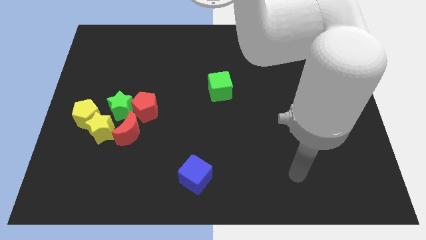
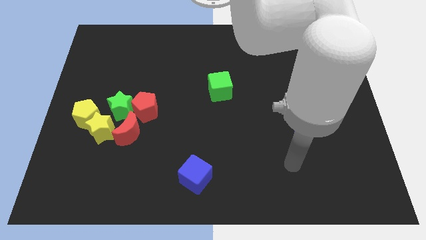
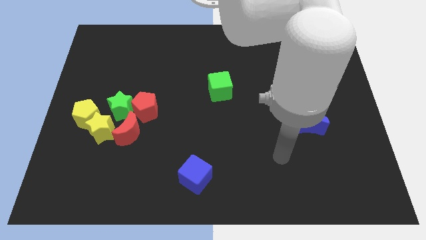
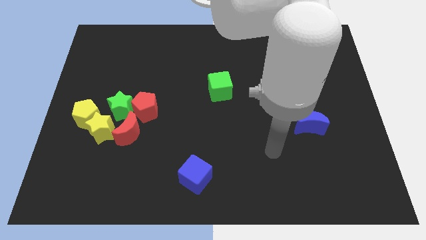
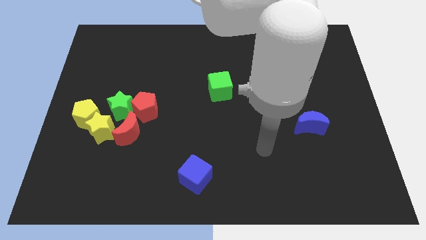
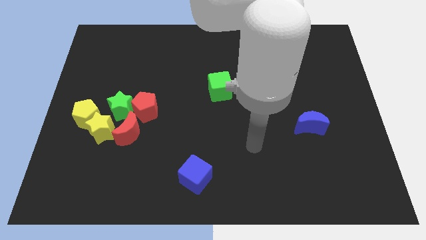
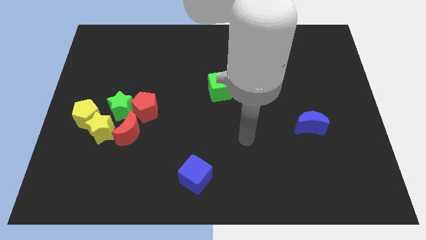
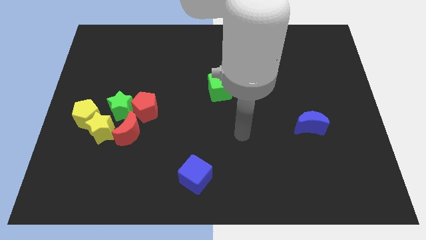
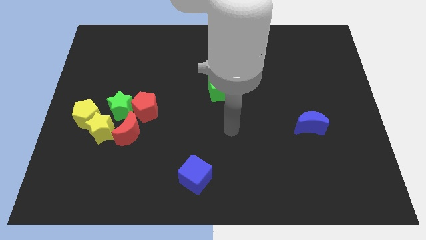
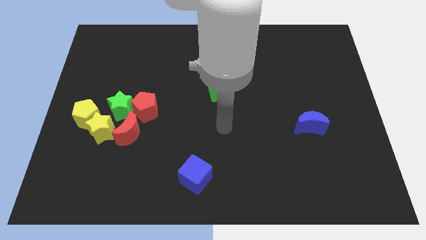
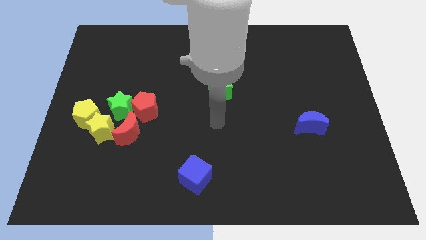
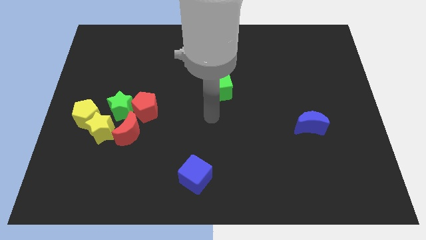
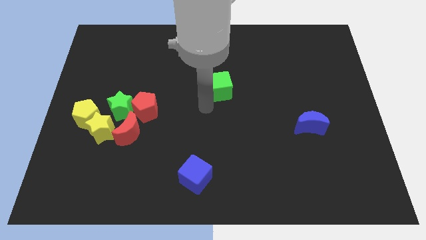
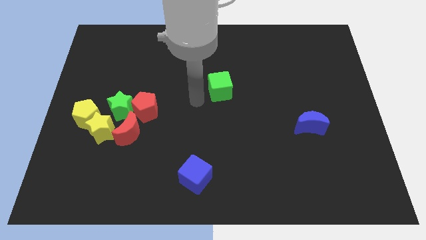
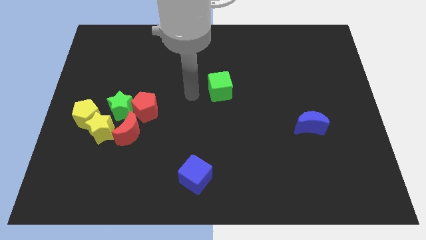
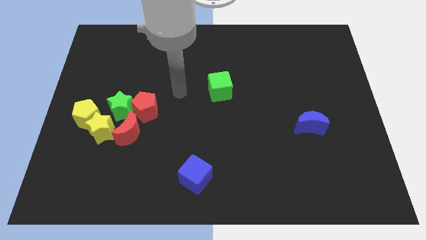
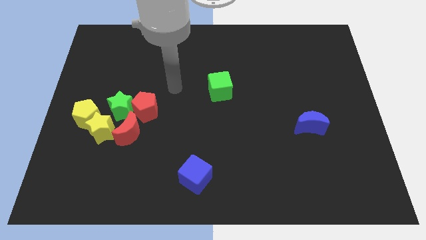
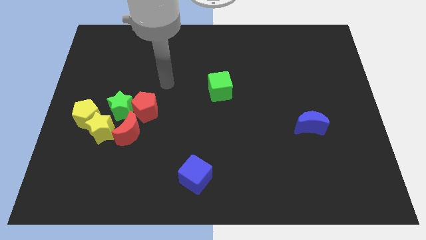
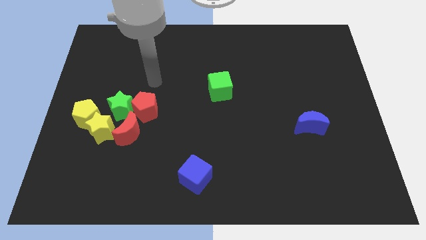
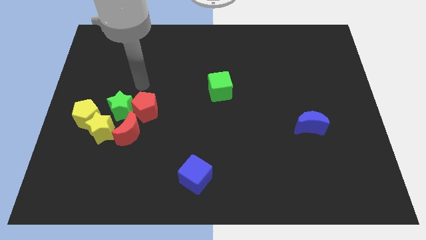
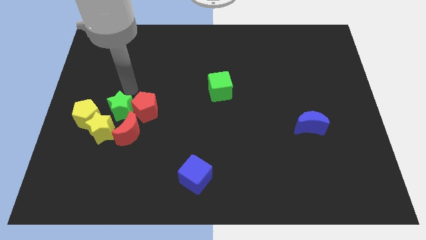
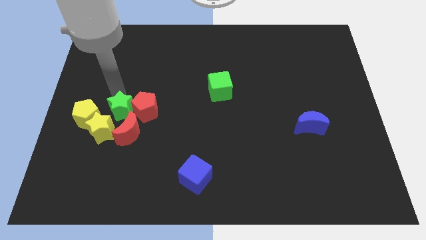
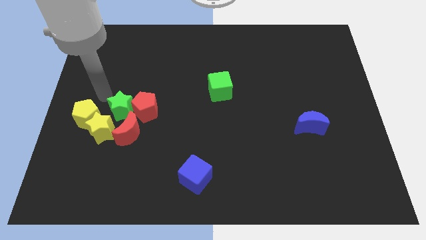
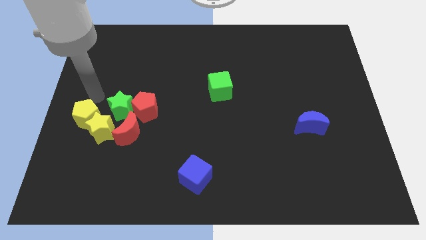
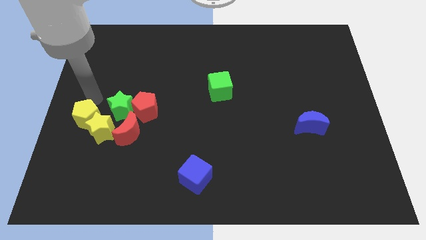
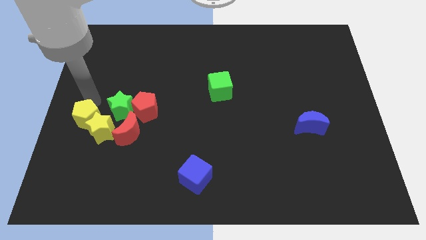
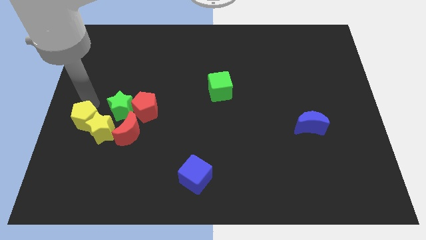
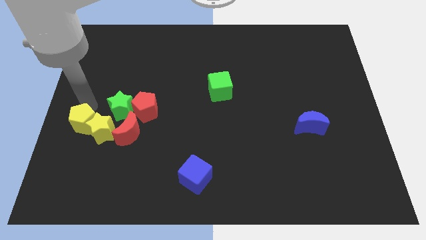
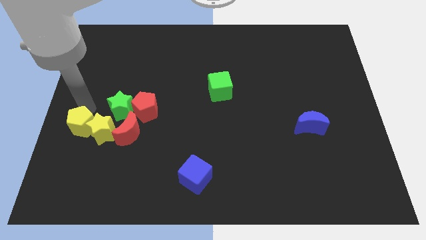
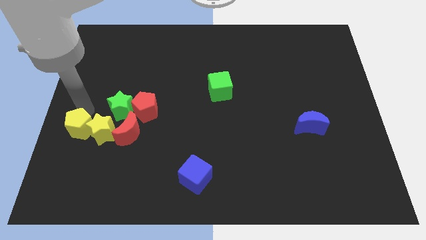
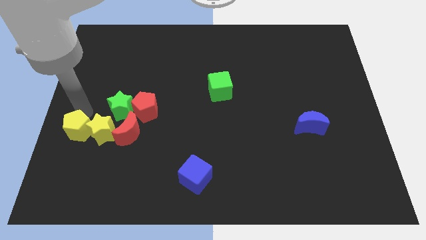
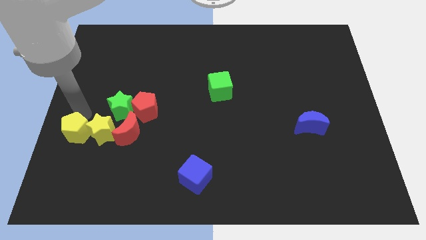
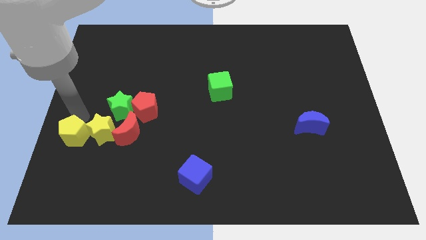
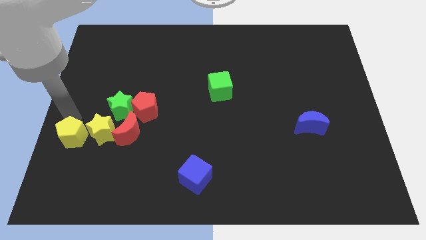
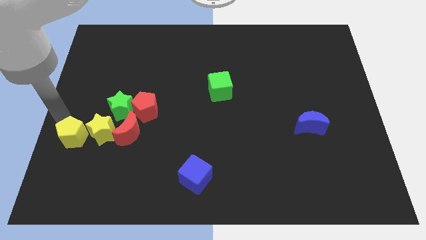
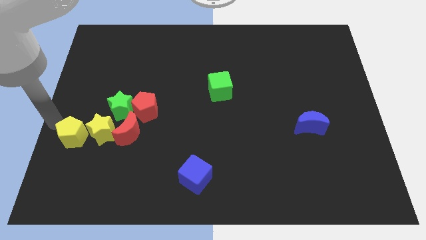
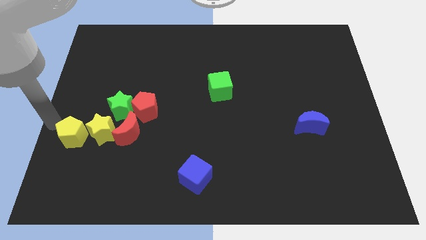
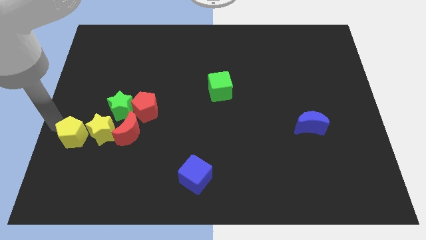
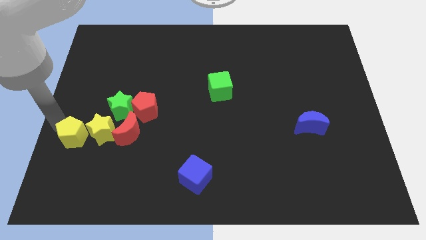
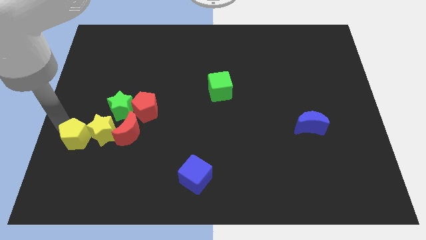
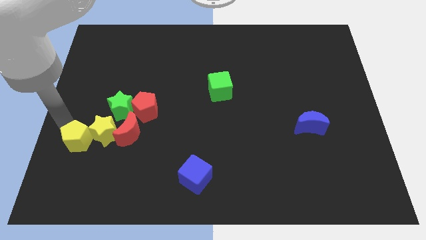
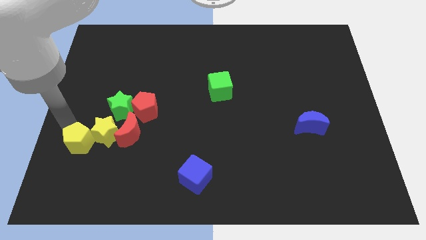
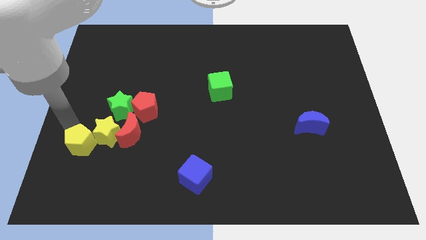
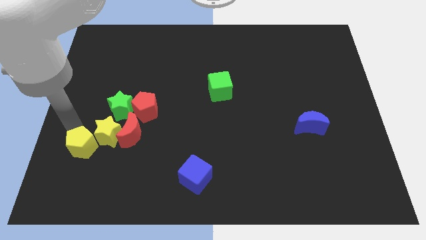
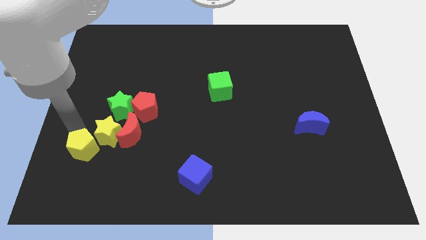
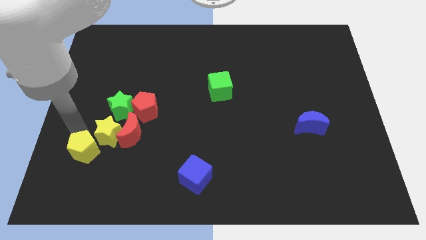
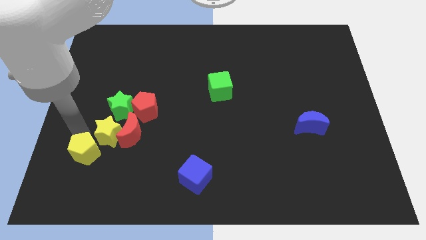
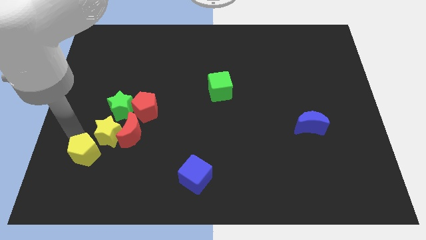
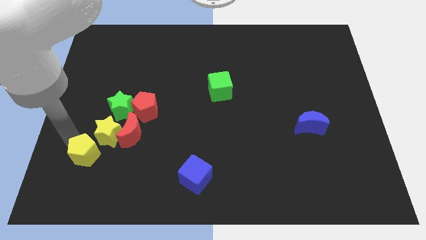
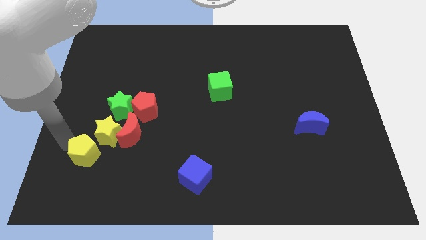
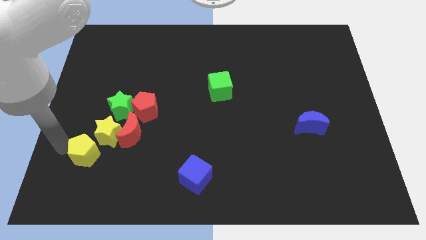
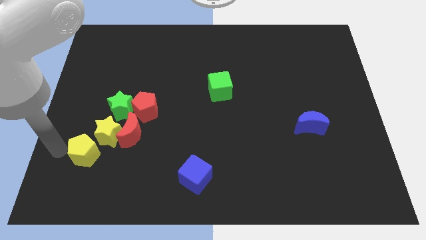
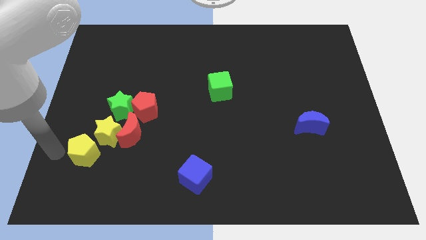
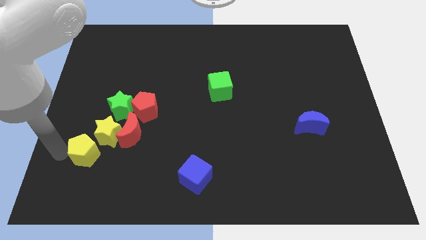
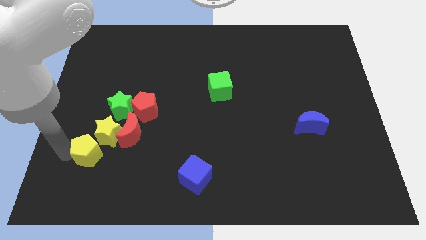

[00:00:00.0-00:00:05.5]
move the yellow pentagon a bit downwards and then right

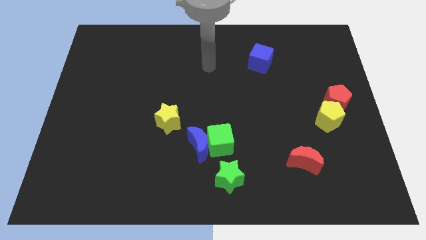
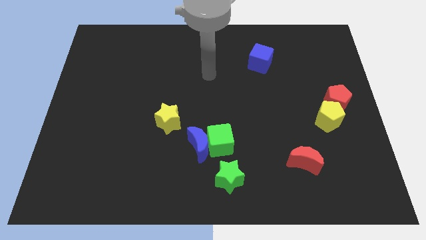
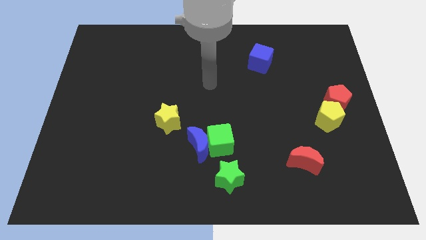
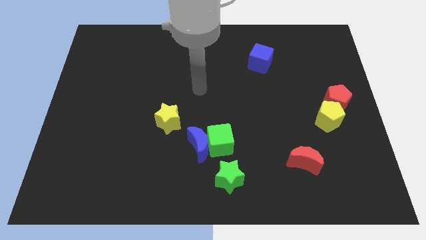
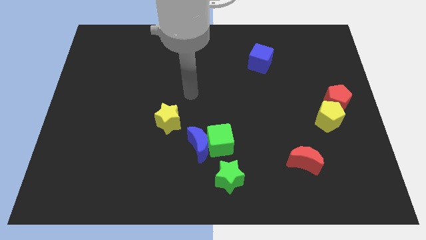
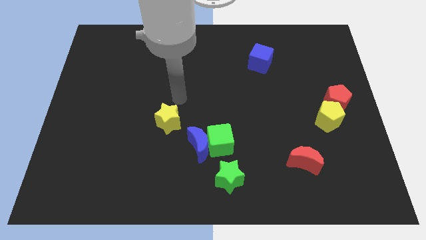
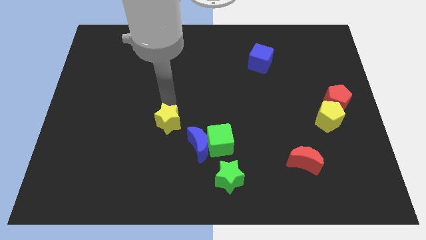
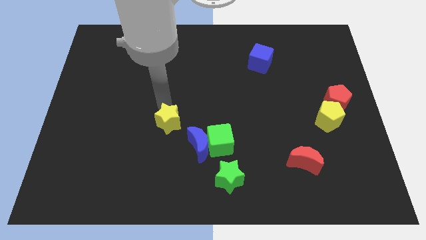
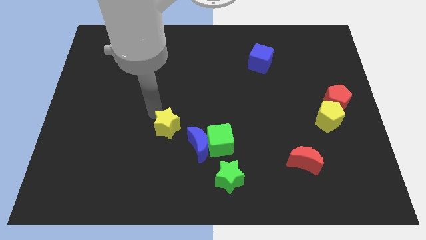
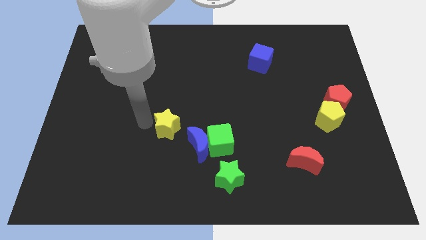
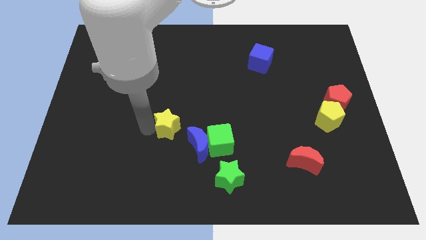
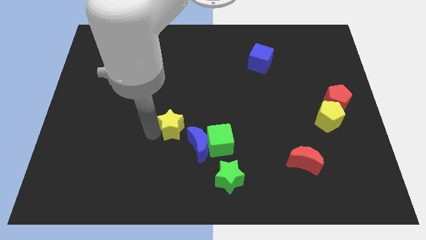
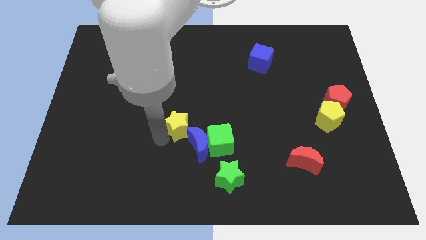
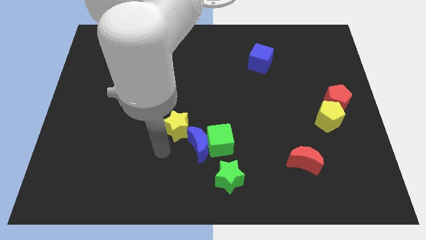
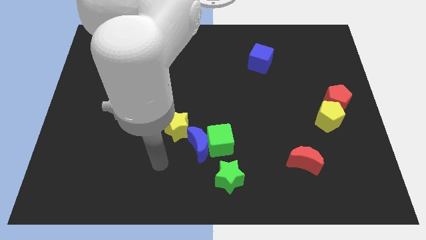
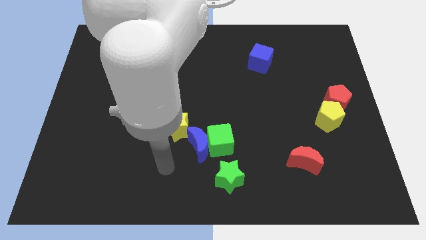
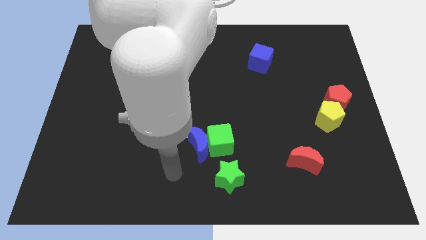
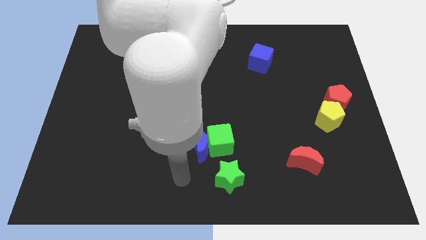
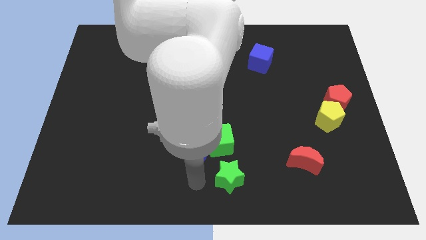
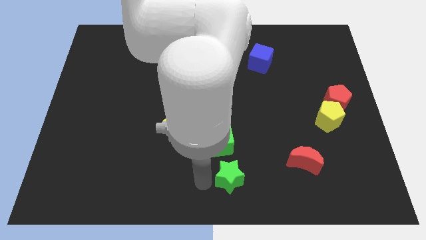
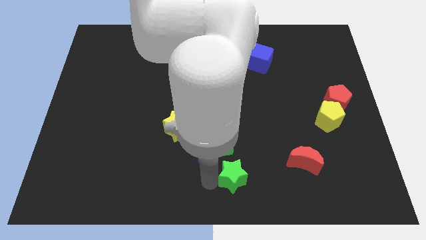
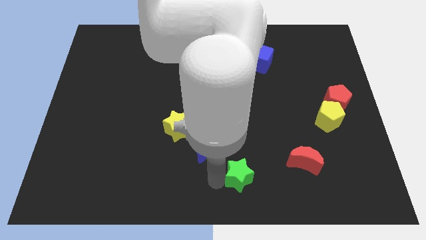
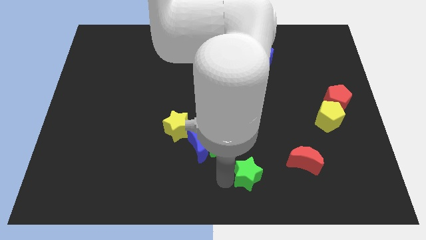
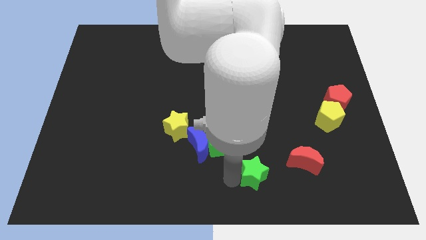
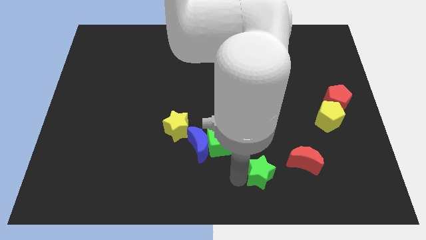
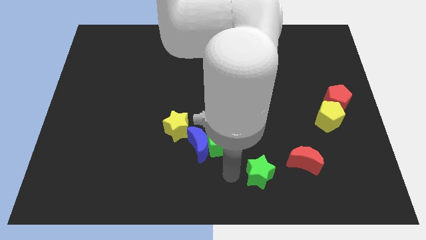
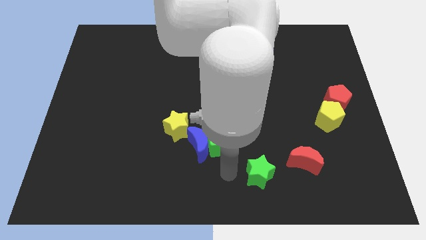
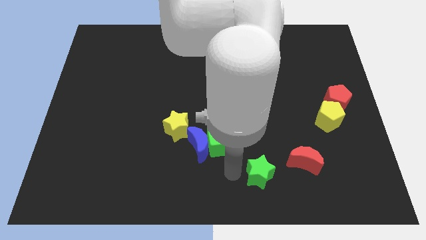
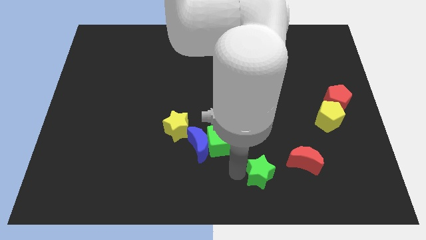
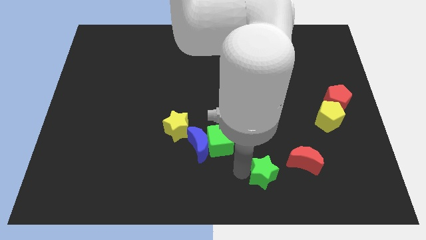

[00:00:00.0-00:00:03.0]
slightly push the green star right
